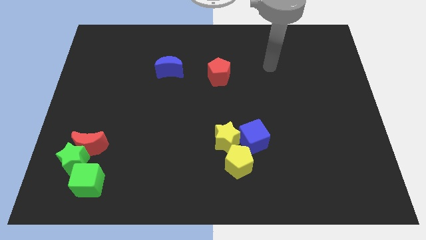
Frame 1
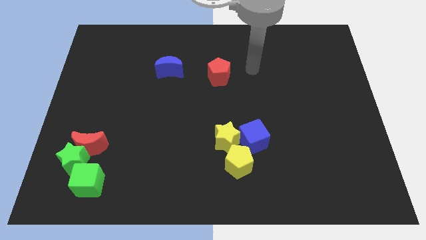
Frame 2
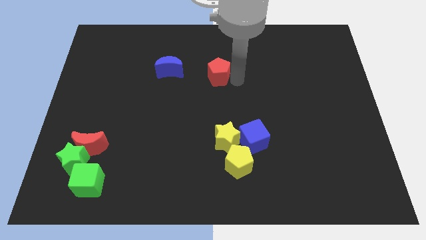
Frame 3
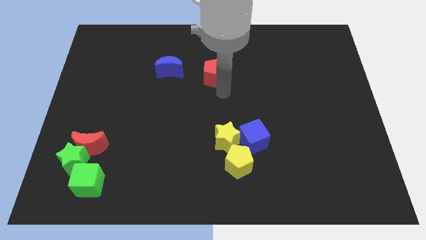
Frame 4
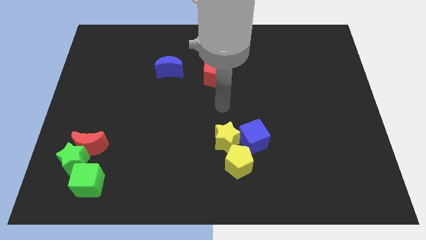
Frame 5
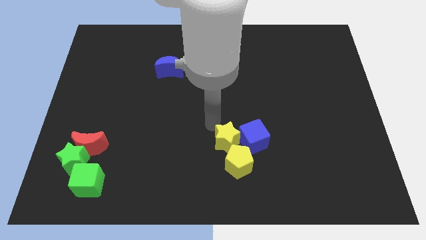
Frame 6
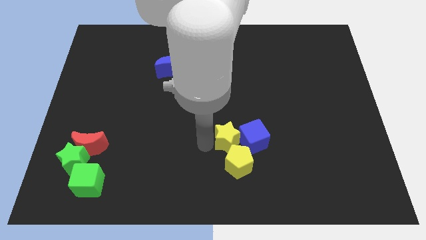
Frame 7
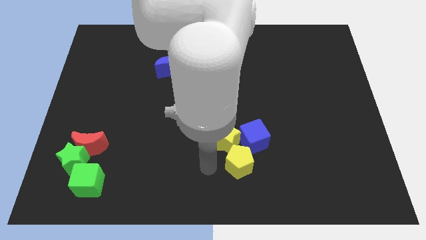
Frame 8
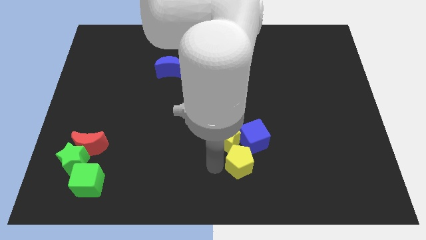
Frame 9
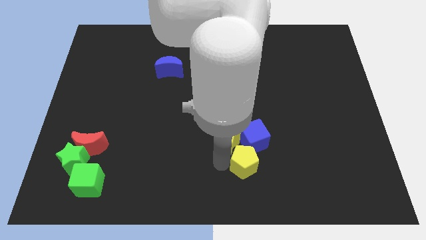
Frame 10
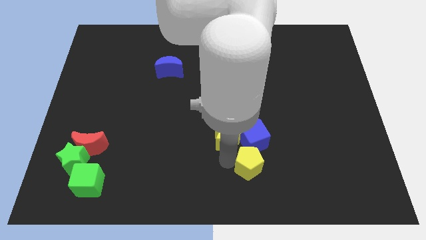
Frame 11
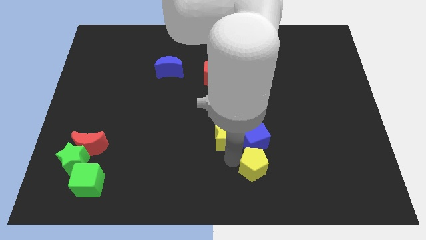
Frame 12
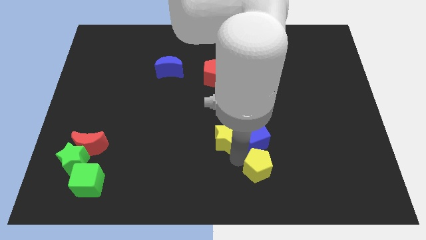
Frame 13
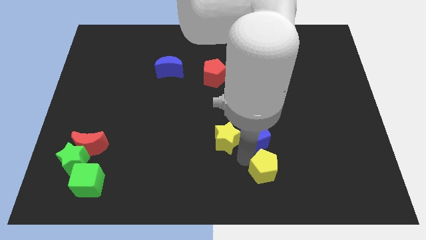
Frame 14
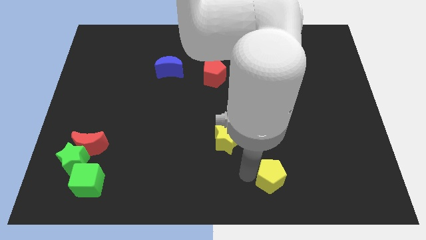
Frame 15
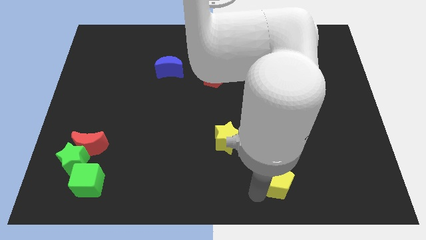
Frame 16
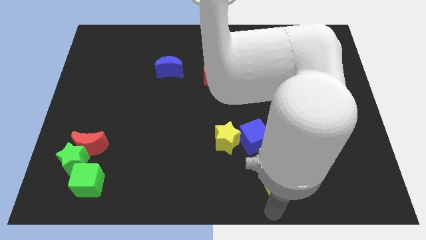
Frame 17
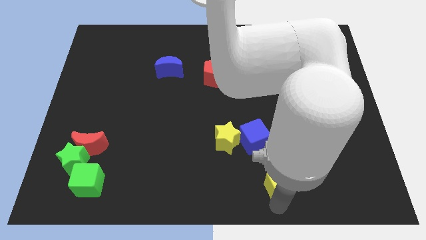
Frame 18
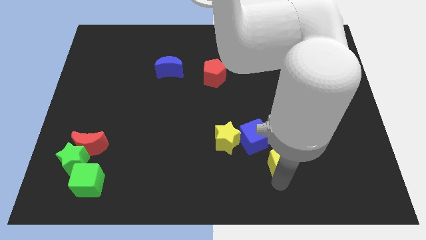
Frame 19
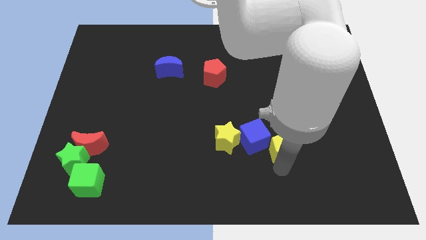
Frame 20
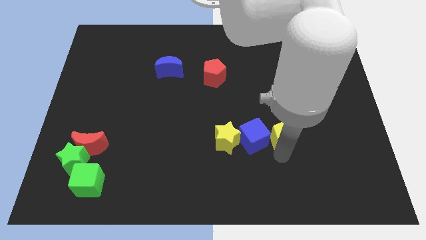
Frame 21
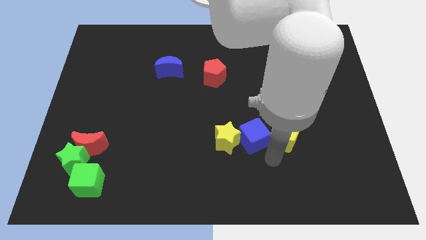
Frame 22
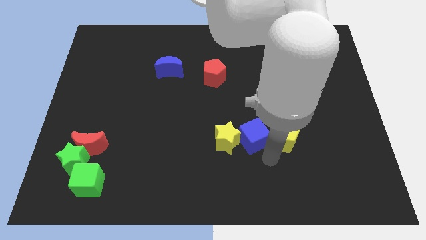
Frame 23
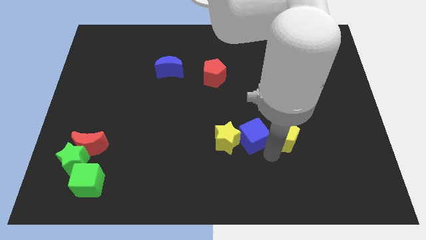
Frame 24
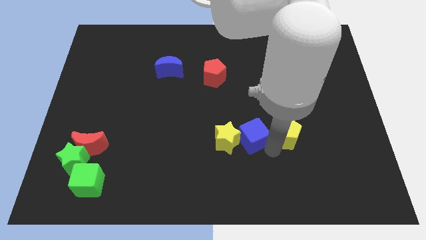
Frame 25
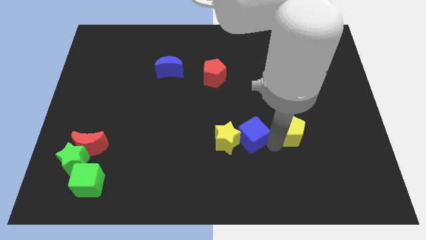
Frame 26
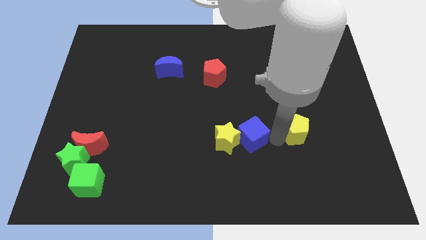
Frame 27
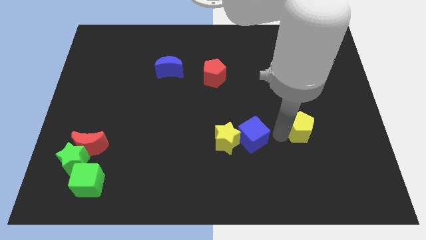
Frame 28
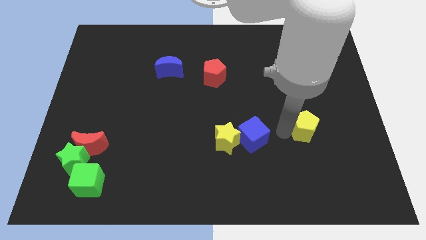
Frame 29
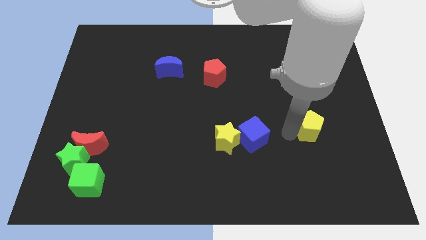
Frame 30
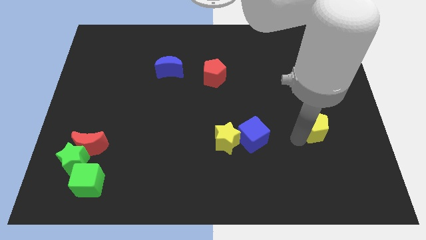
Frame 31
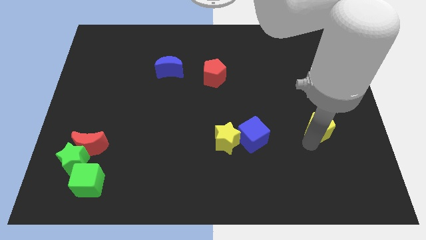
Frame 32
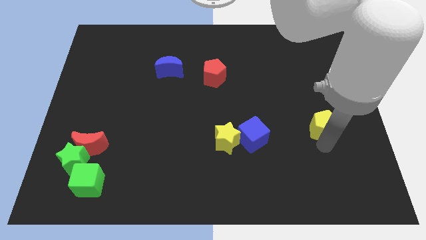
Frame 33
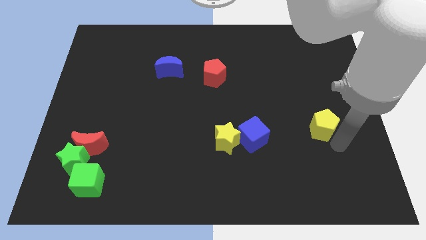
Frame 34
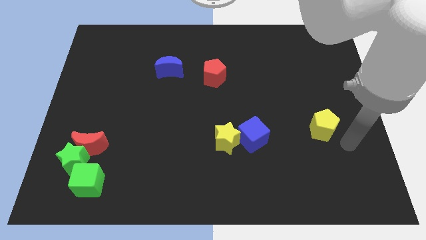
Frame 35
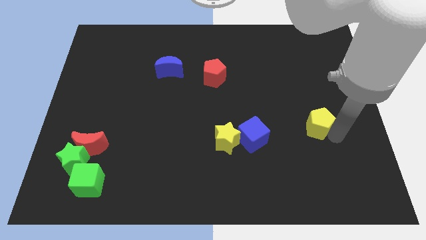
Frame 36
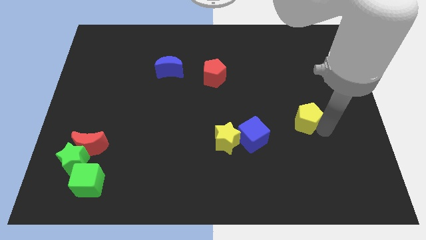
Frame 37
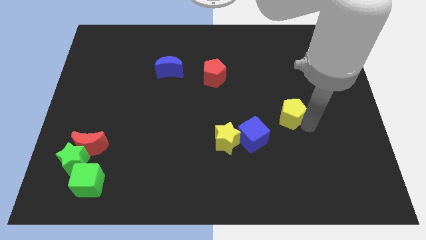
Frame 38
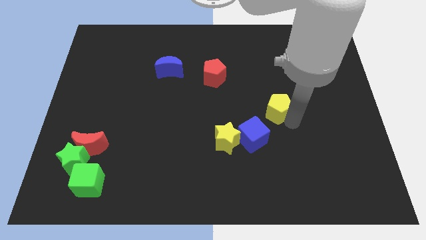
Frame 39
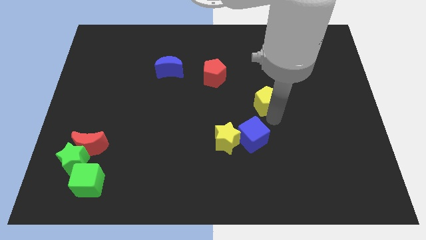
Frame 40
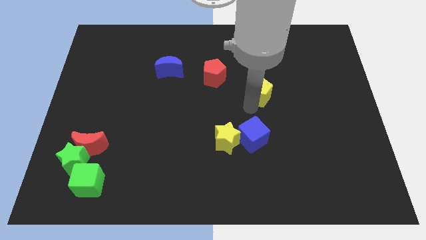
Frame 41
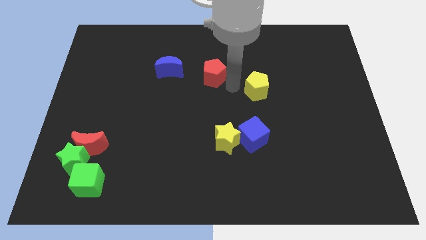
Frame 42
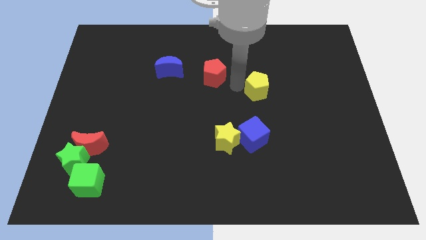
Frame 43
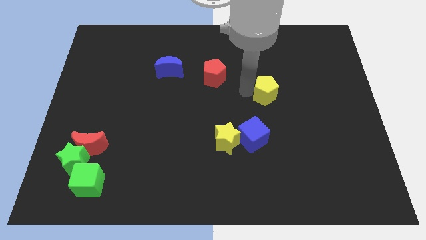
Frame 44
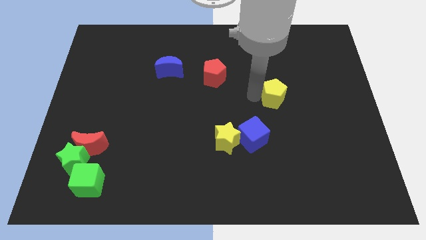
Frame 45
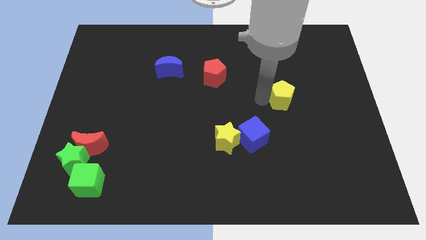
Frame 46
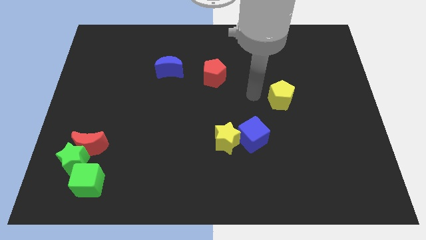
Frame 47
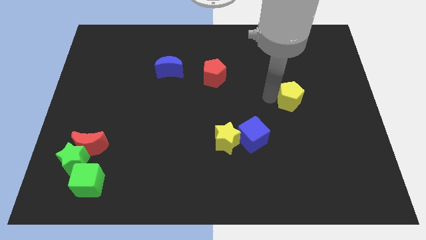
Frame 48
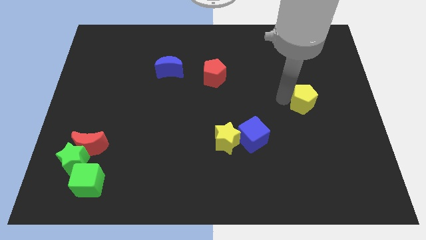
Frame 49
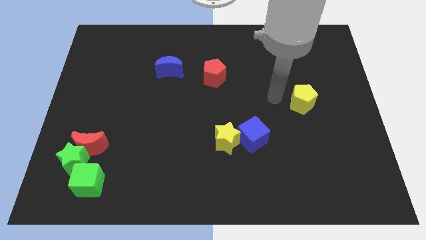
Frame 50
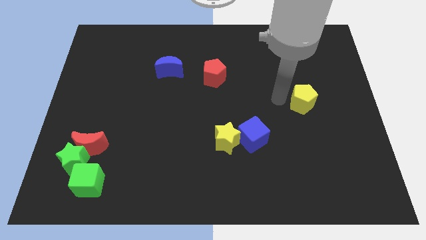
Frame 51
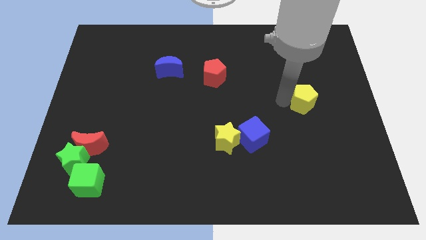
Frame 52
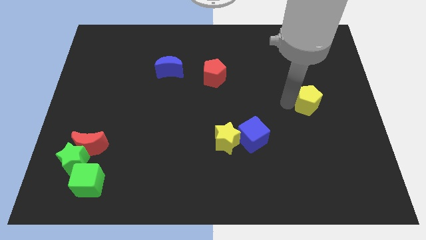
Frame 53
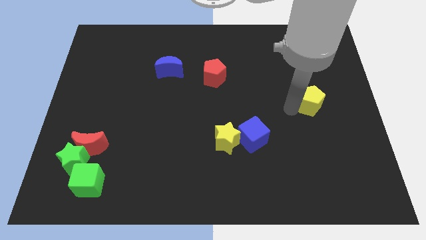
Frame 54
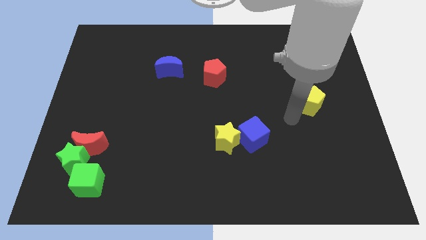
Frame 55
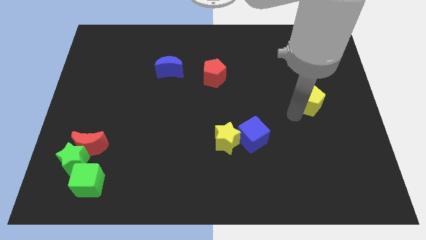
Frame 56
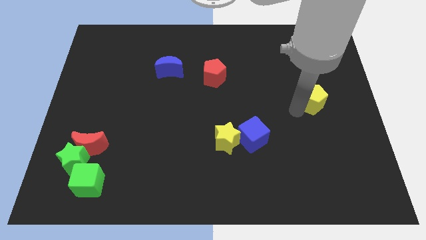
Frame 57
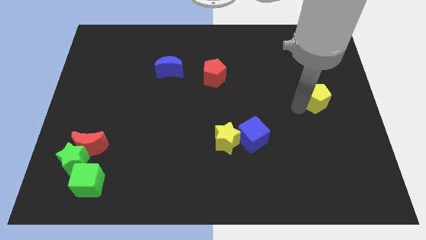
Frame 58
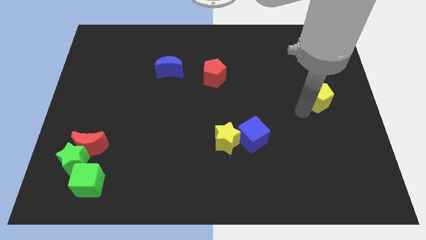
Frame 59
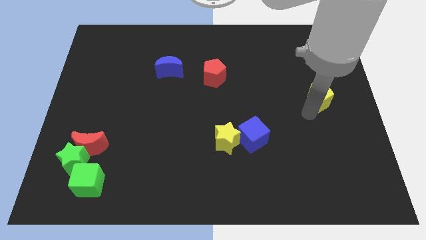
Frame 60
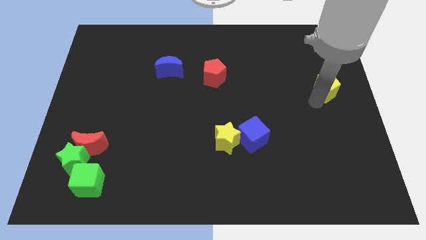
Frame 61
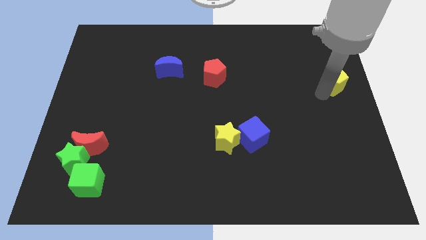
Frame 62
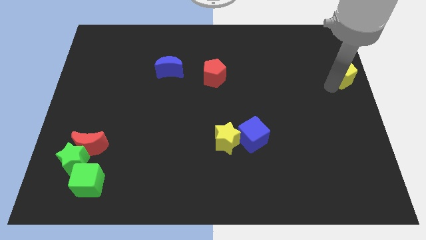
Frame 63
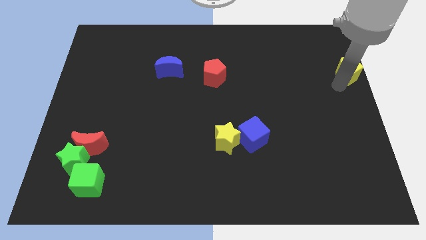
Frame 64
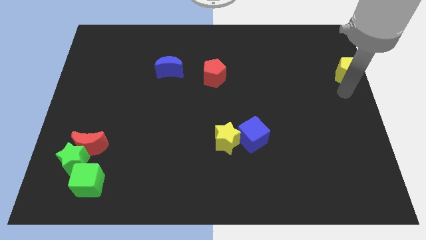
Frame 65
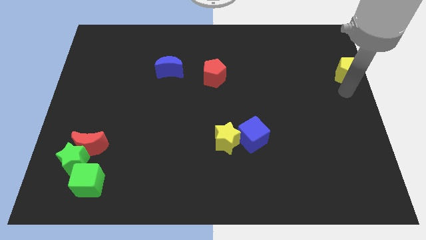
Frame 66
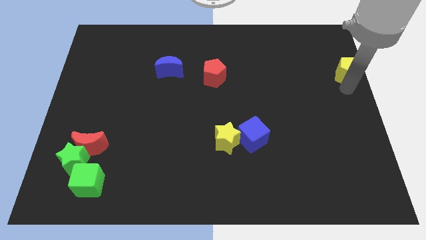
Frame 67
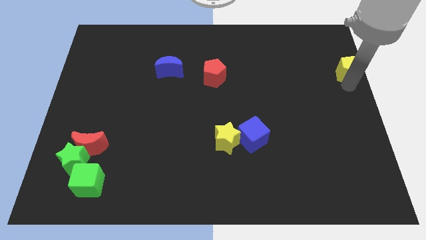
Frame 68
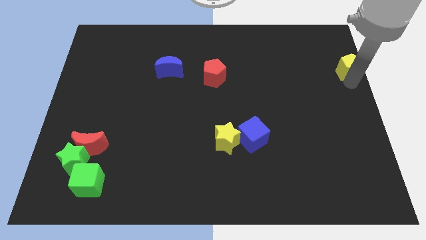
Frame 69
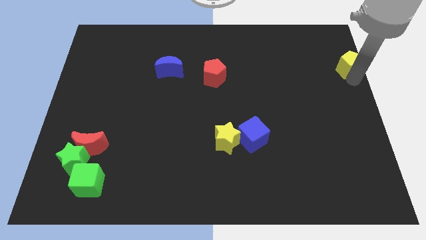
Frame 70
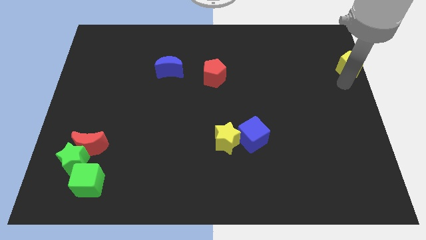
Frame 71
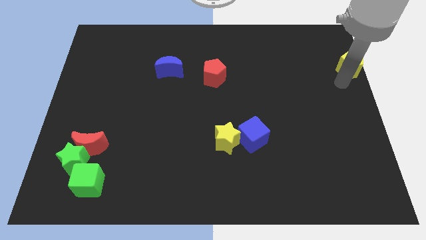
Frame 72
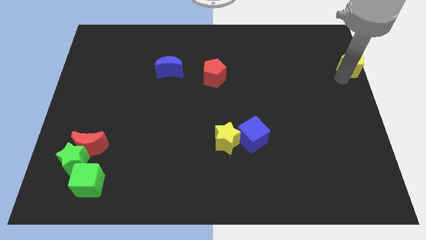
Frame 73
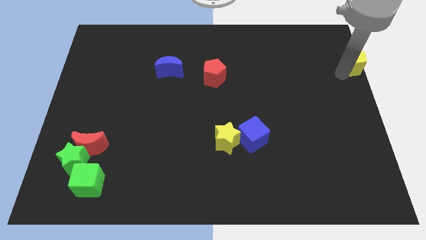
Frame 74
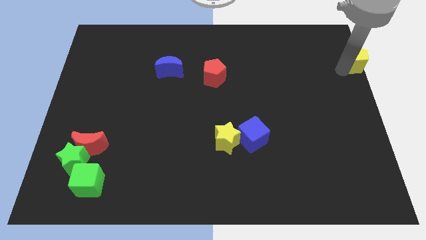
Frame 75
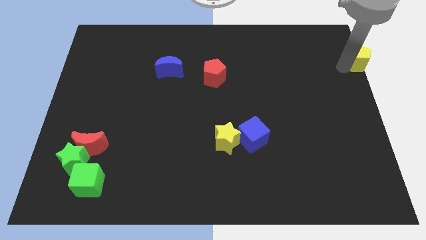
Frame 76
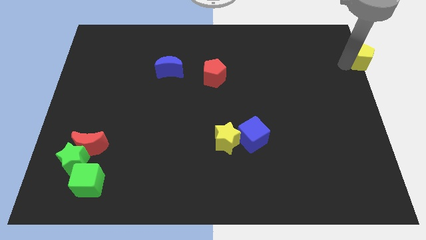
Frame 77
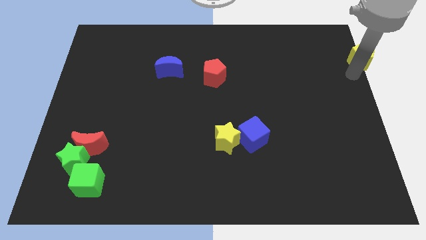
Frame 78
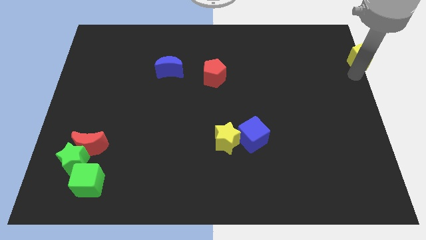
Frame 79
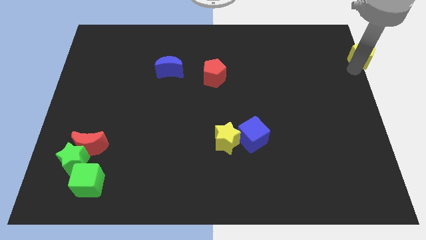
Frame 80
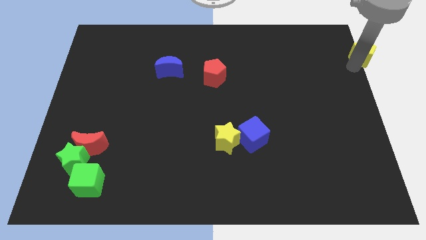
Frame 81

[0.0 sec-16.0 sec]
move the yellow pentagon to the top right corner
